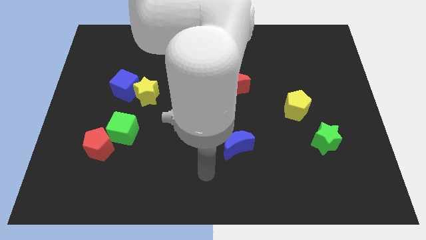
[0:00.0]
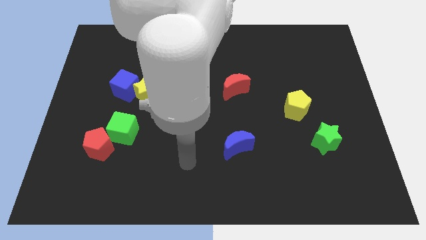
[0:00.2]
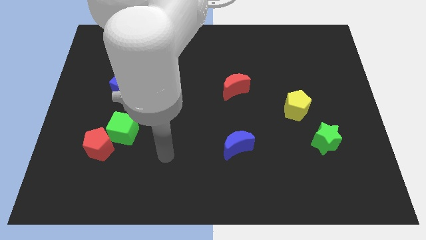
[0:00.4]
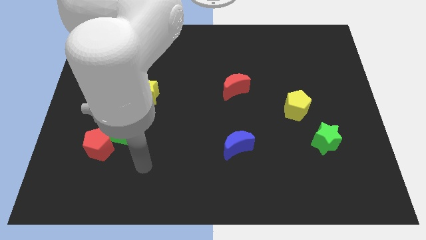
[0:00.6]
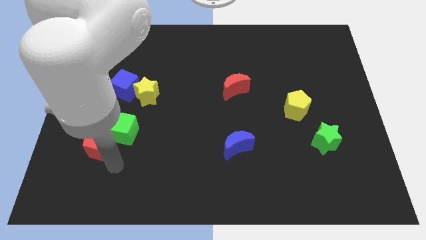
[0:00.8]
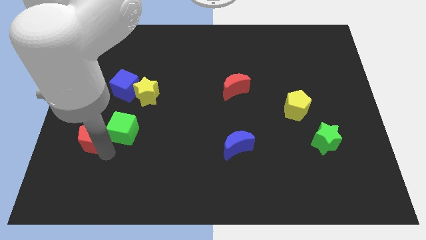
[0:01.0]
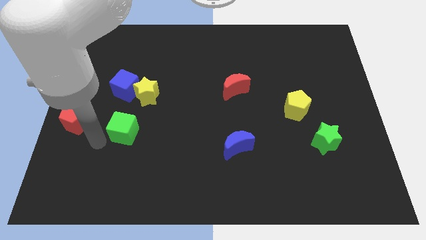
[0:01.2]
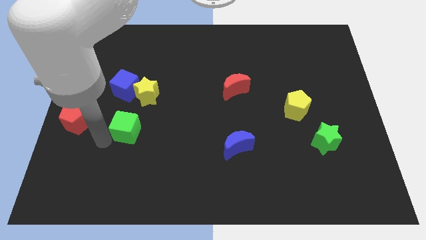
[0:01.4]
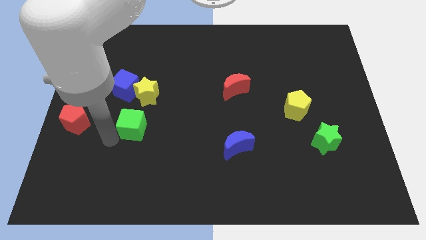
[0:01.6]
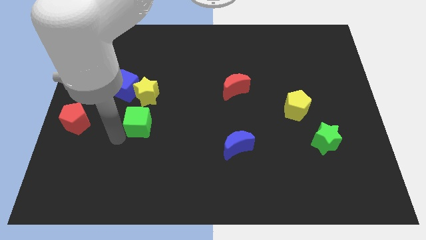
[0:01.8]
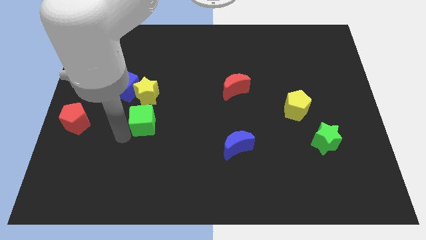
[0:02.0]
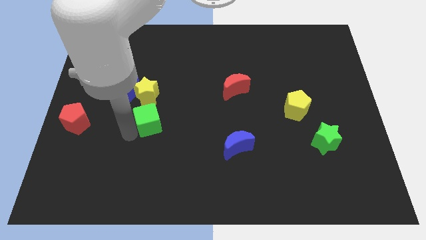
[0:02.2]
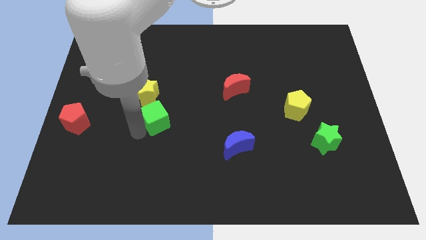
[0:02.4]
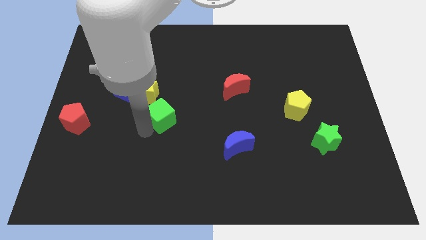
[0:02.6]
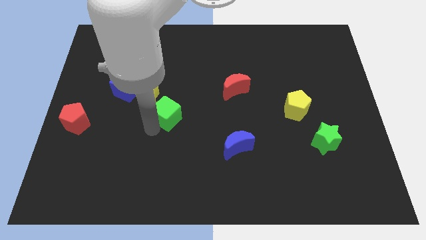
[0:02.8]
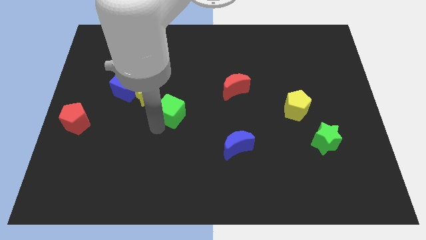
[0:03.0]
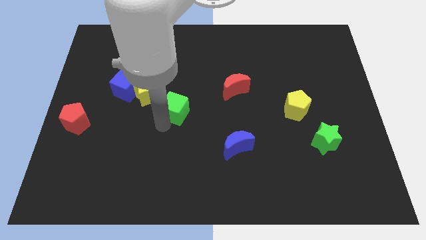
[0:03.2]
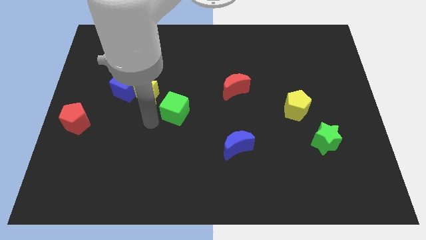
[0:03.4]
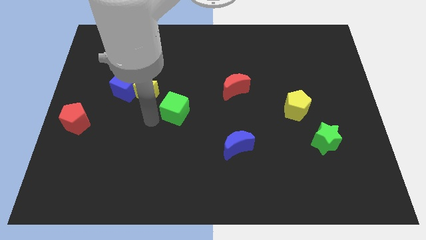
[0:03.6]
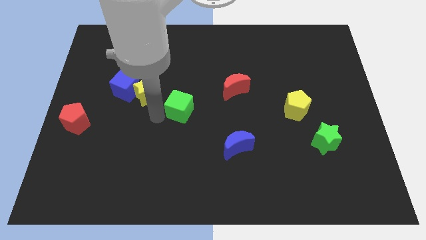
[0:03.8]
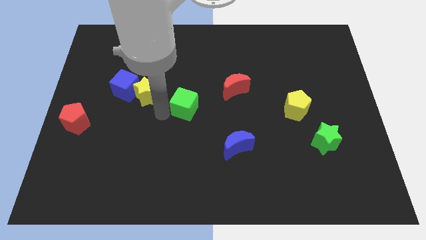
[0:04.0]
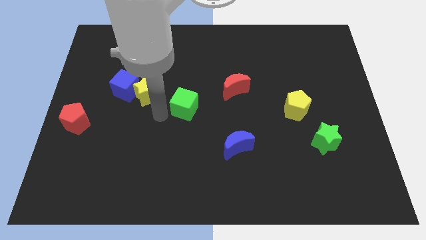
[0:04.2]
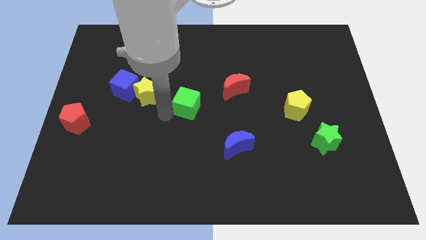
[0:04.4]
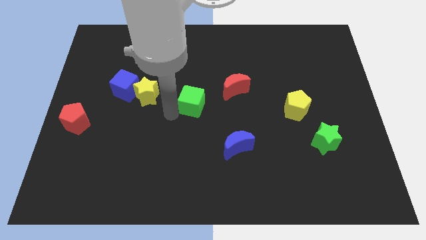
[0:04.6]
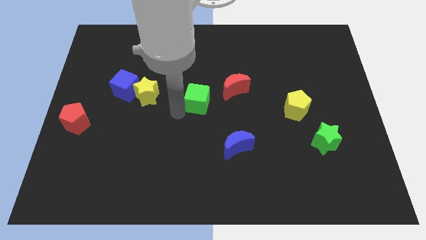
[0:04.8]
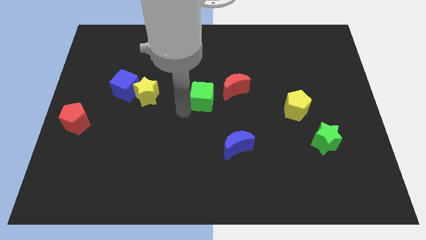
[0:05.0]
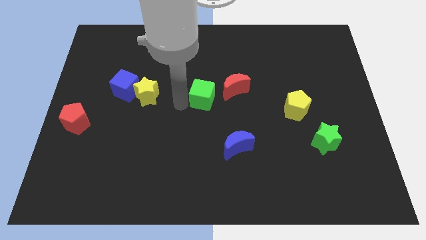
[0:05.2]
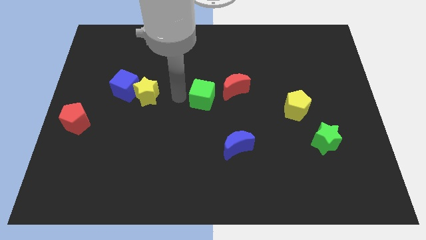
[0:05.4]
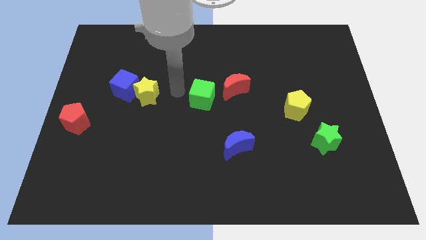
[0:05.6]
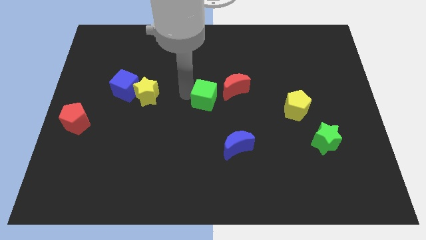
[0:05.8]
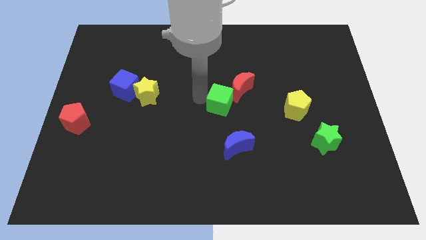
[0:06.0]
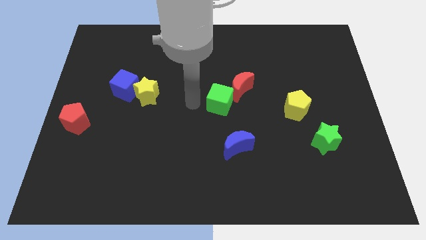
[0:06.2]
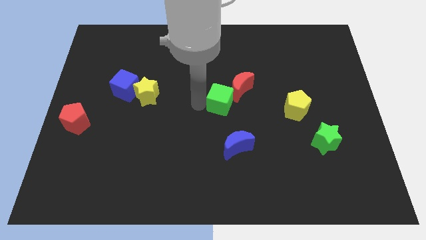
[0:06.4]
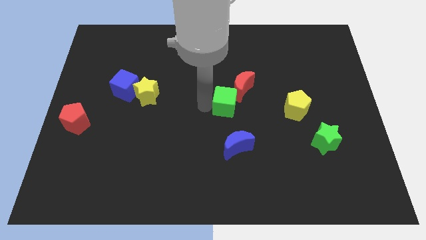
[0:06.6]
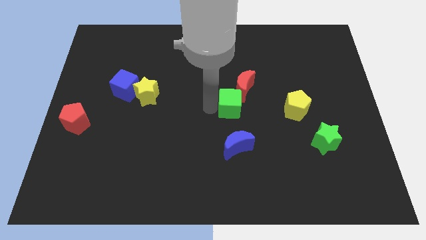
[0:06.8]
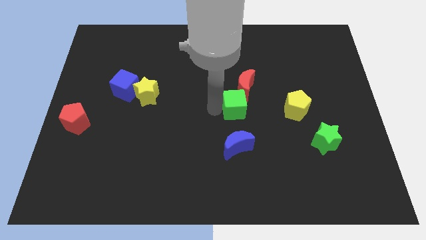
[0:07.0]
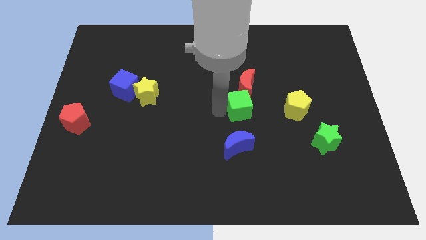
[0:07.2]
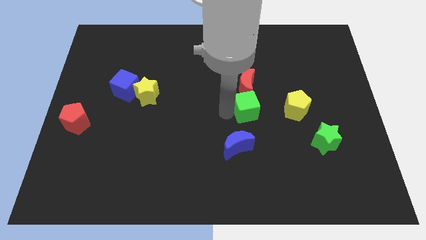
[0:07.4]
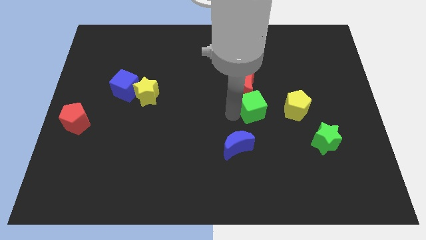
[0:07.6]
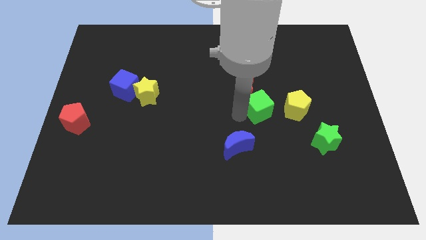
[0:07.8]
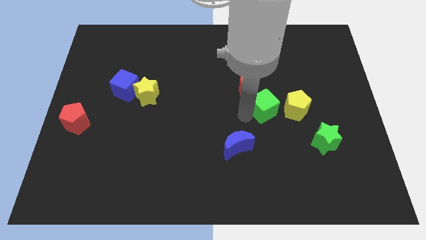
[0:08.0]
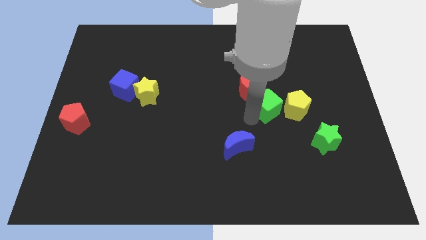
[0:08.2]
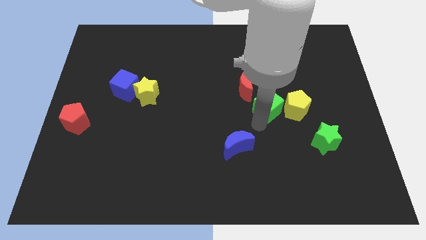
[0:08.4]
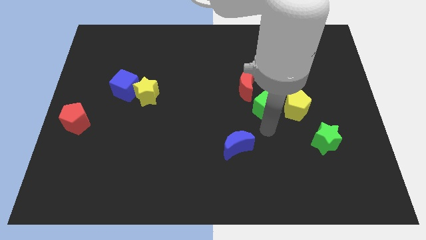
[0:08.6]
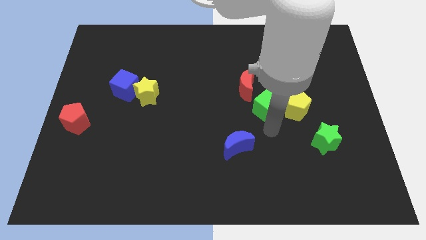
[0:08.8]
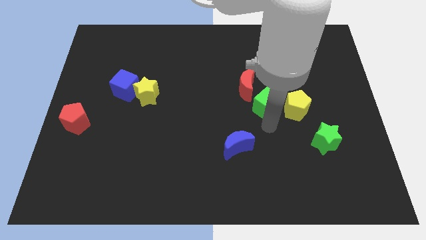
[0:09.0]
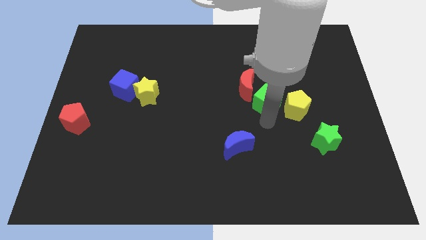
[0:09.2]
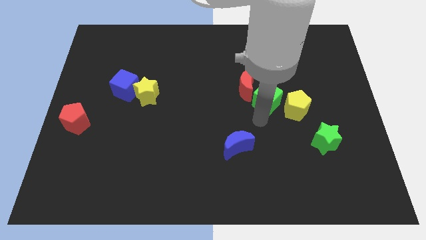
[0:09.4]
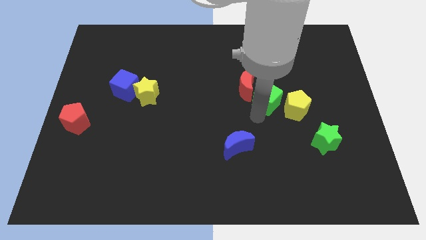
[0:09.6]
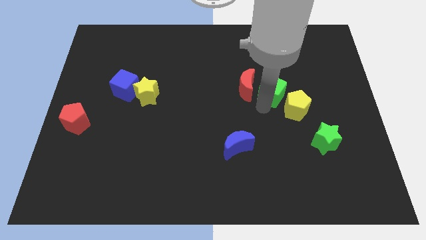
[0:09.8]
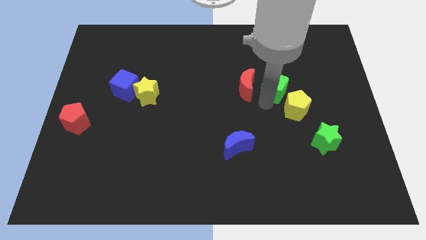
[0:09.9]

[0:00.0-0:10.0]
put the green cube to the top of the yellow pentagon

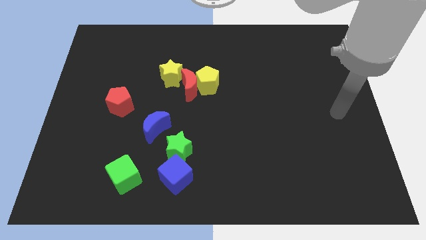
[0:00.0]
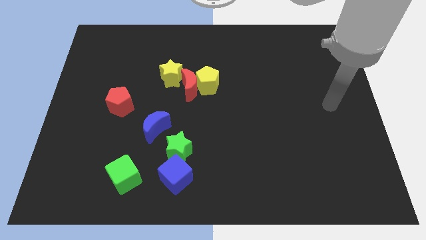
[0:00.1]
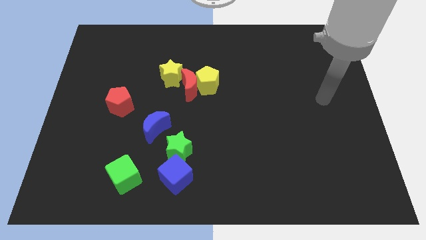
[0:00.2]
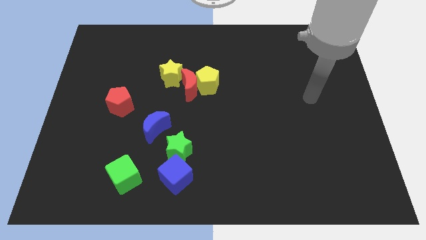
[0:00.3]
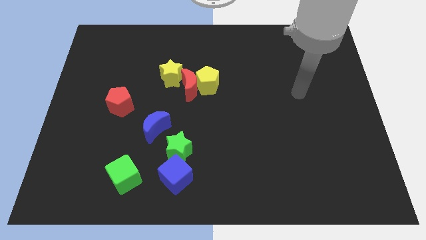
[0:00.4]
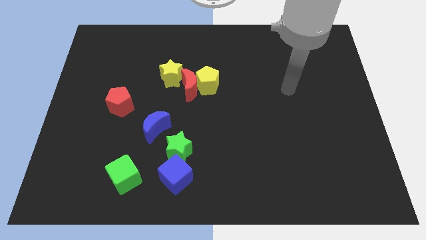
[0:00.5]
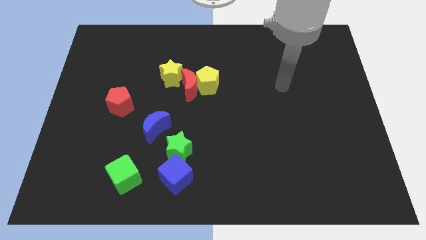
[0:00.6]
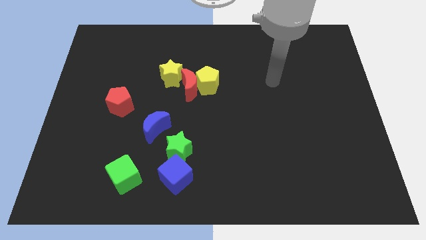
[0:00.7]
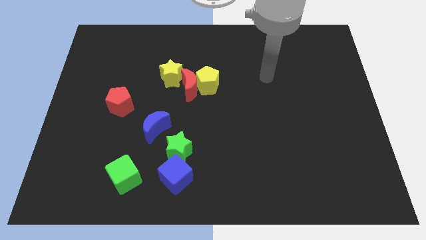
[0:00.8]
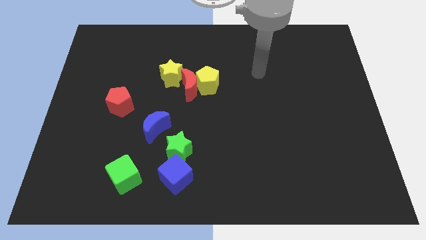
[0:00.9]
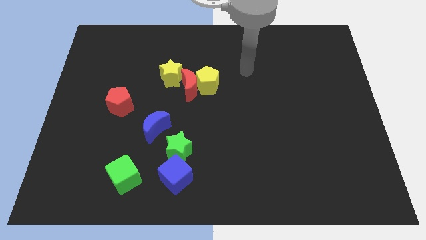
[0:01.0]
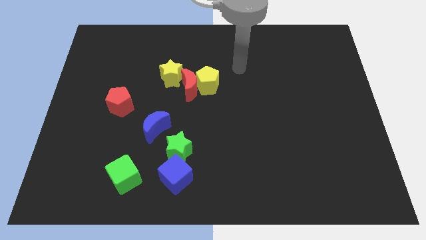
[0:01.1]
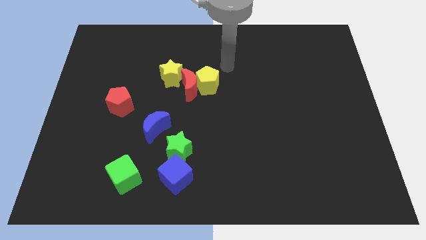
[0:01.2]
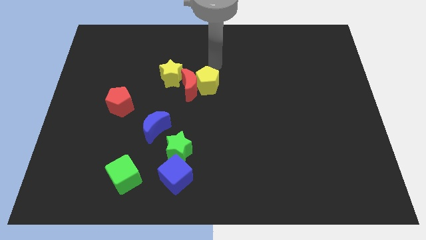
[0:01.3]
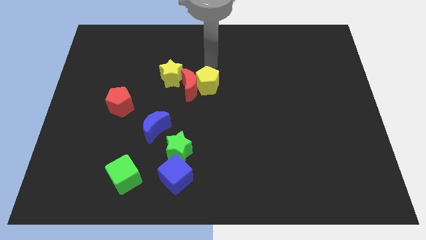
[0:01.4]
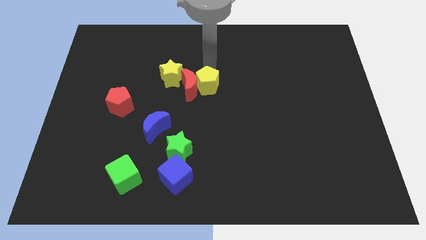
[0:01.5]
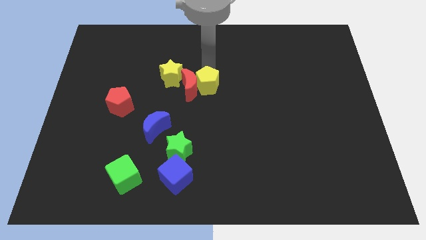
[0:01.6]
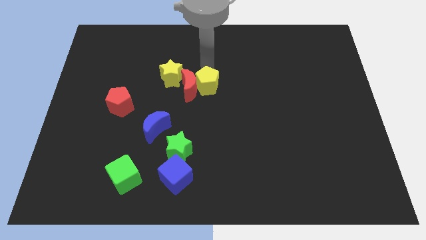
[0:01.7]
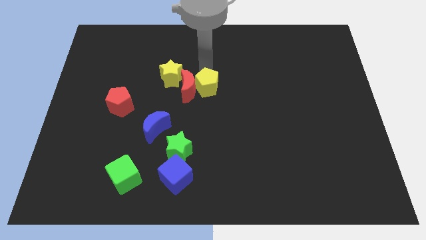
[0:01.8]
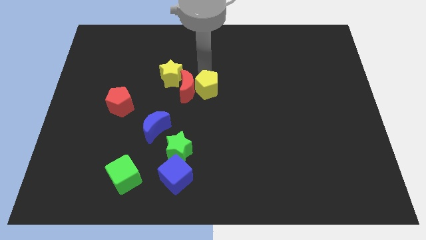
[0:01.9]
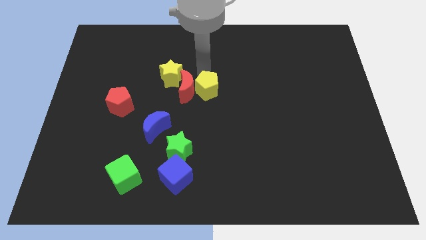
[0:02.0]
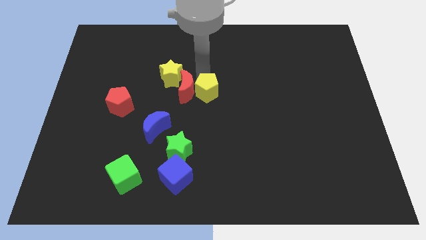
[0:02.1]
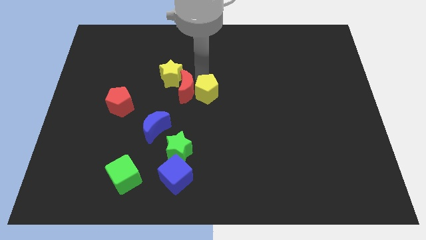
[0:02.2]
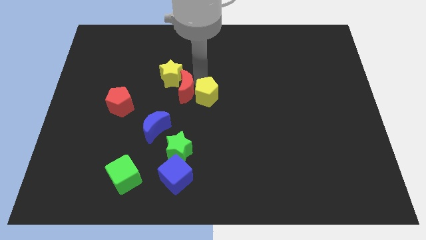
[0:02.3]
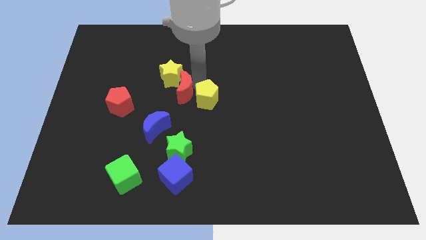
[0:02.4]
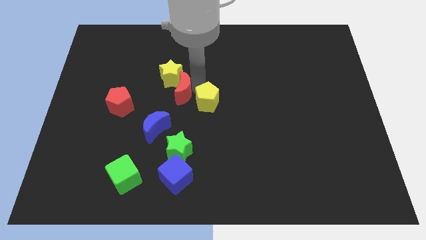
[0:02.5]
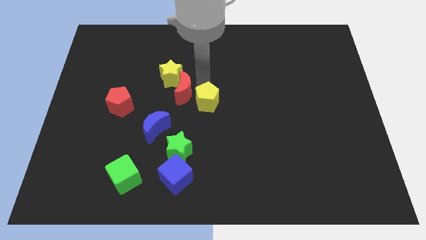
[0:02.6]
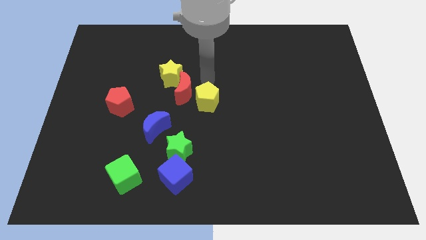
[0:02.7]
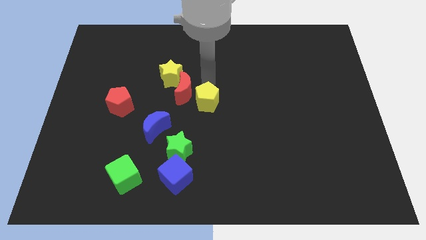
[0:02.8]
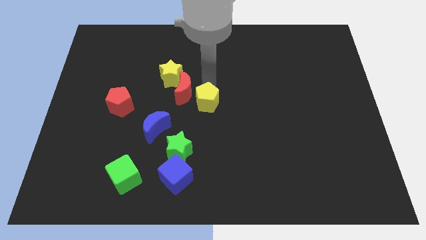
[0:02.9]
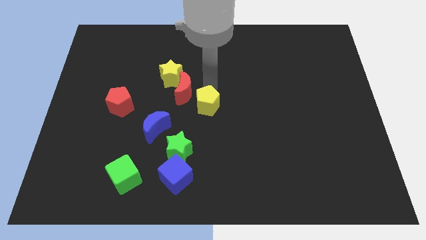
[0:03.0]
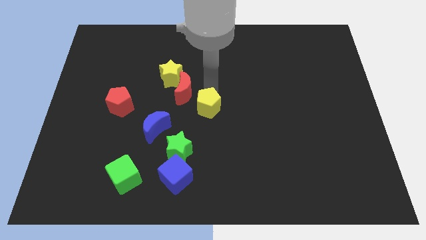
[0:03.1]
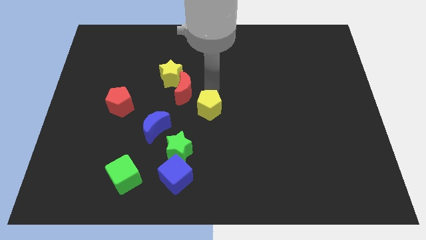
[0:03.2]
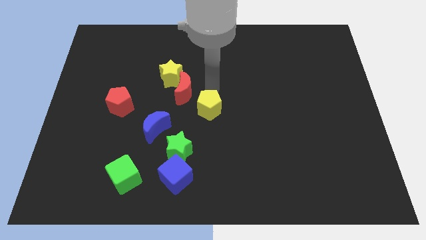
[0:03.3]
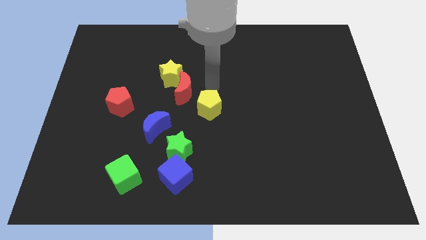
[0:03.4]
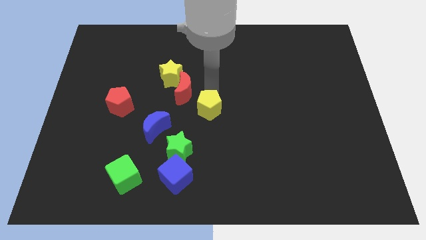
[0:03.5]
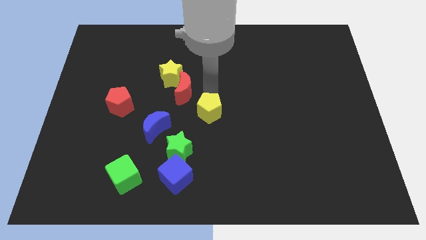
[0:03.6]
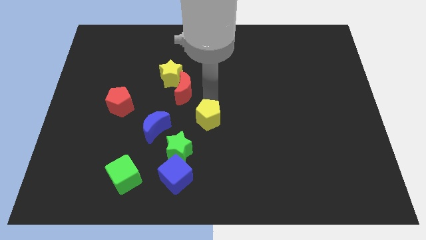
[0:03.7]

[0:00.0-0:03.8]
slide the yellow pentagon diagonally up and to the right of the green star
